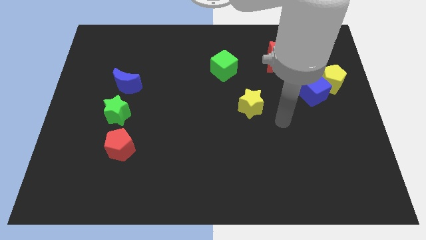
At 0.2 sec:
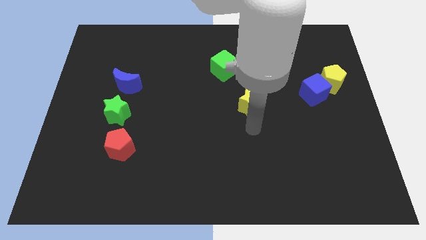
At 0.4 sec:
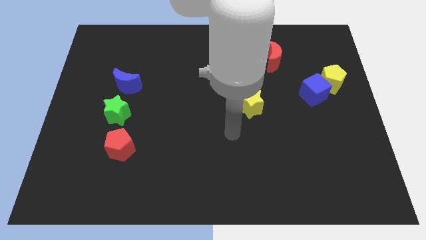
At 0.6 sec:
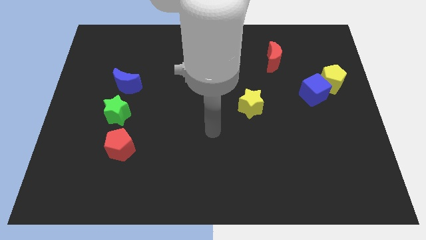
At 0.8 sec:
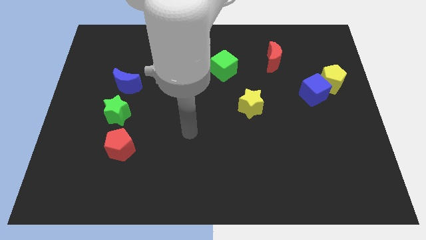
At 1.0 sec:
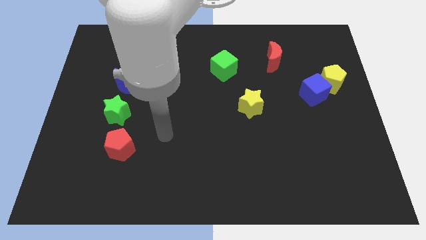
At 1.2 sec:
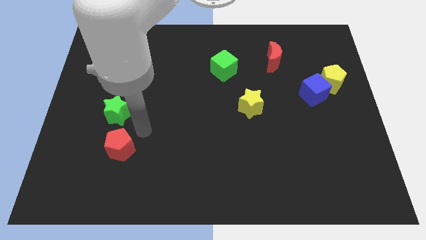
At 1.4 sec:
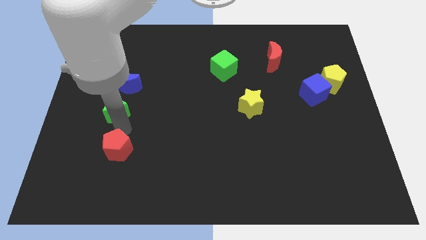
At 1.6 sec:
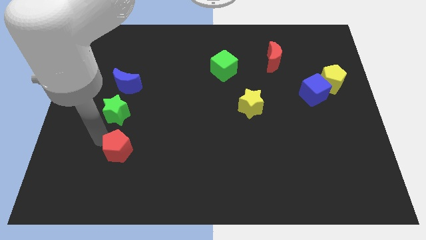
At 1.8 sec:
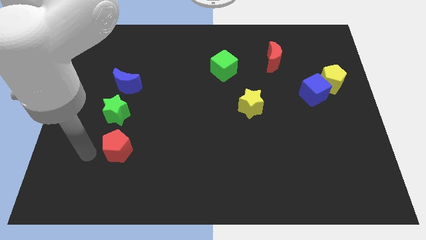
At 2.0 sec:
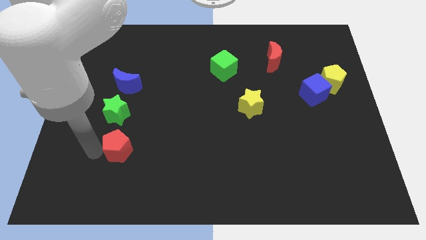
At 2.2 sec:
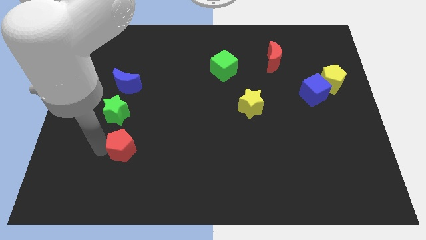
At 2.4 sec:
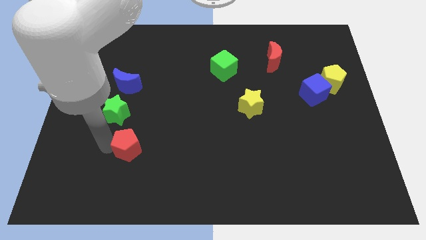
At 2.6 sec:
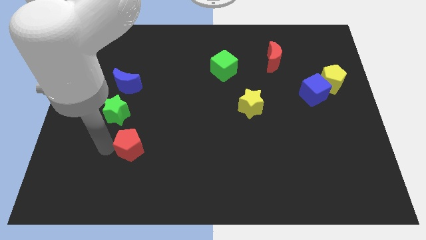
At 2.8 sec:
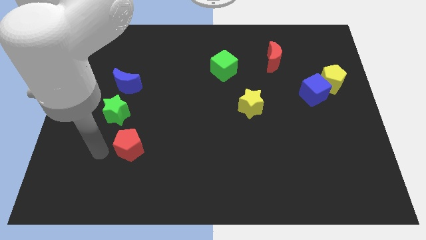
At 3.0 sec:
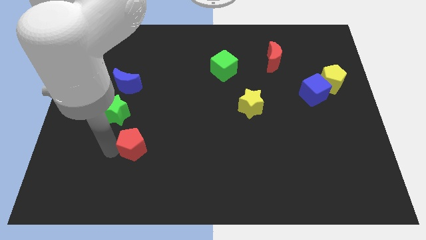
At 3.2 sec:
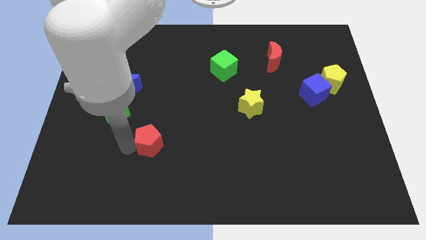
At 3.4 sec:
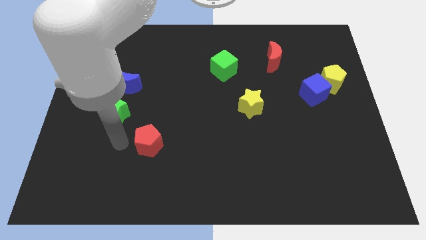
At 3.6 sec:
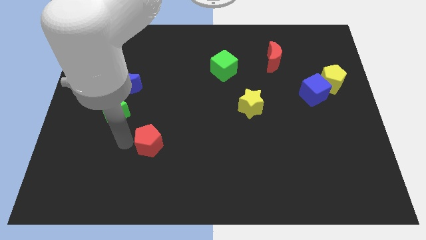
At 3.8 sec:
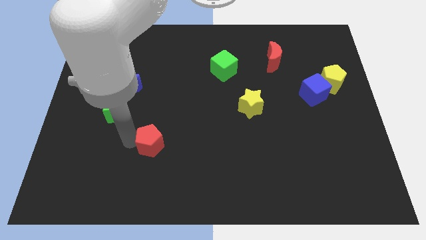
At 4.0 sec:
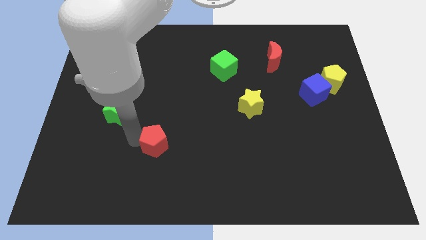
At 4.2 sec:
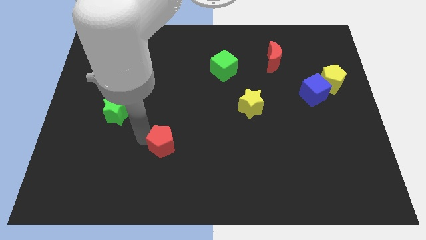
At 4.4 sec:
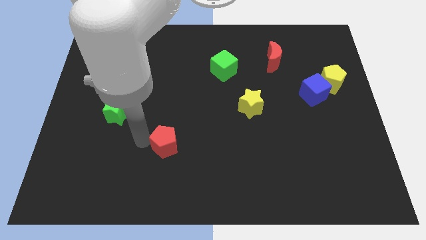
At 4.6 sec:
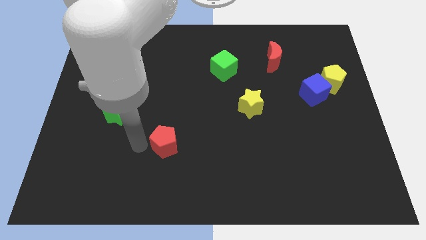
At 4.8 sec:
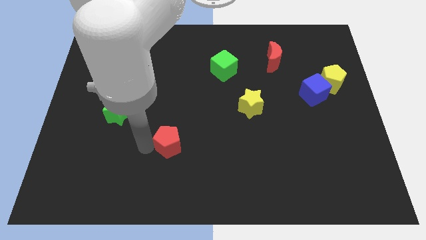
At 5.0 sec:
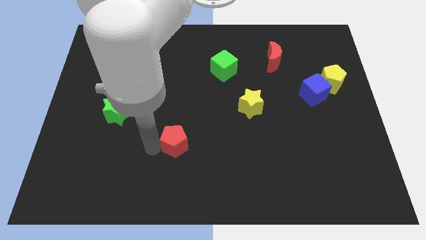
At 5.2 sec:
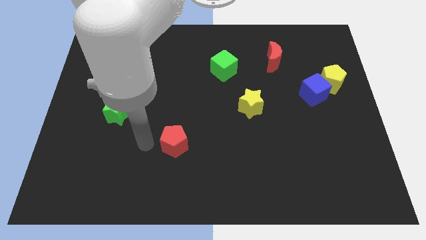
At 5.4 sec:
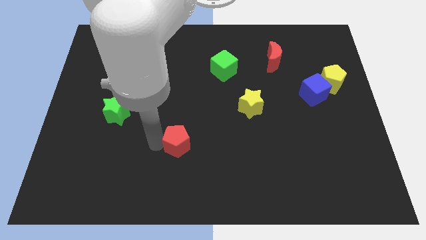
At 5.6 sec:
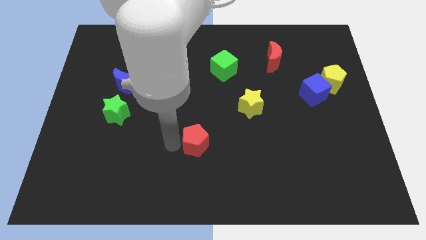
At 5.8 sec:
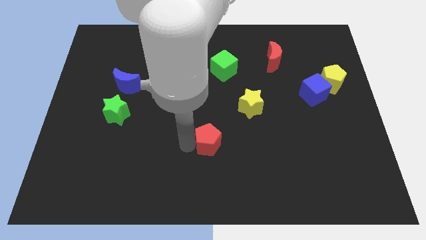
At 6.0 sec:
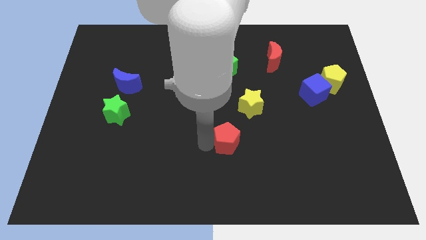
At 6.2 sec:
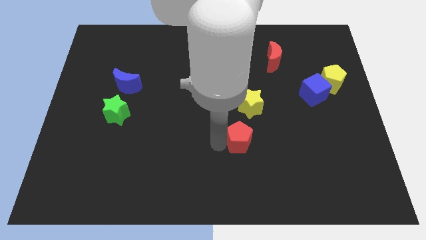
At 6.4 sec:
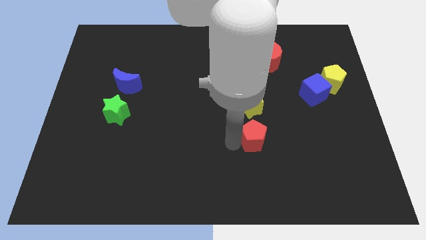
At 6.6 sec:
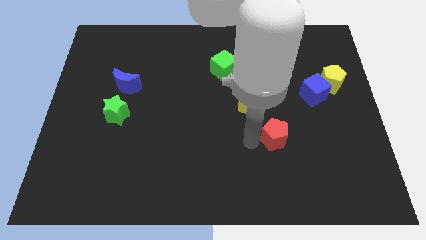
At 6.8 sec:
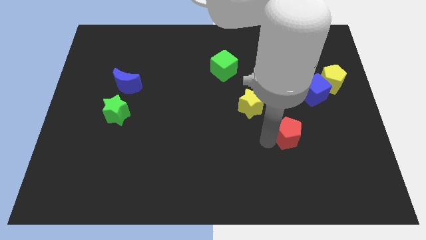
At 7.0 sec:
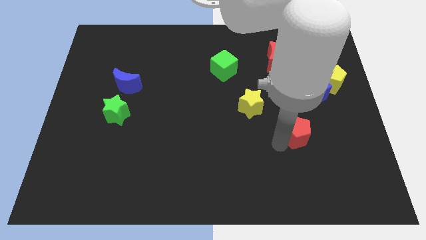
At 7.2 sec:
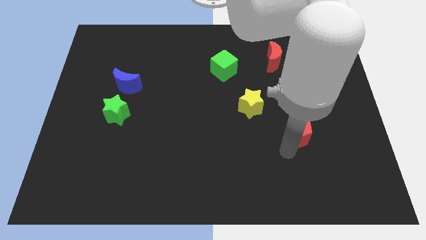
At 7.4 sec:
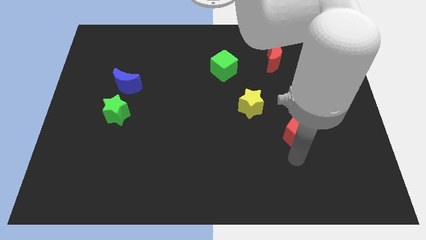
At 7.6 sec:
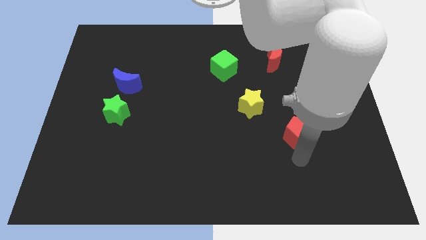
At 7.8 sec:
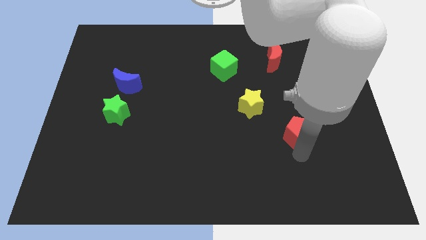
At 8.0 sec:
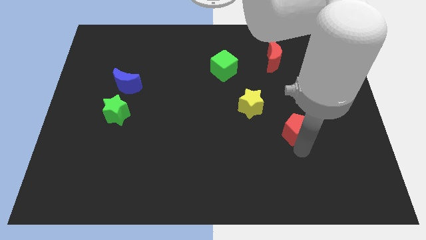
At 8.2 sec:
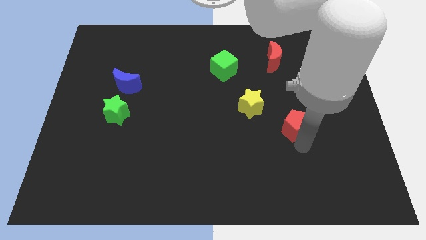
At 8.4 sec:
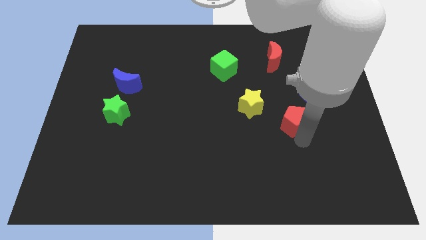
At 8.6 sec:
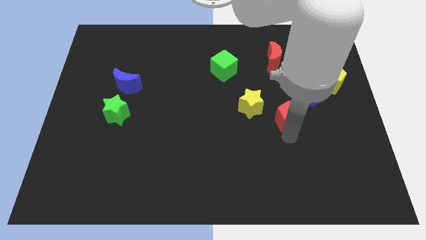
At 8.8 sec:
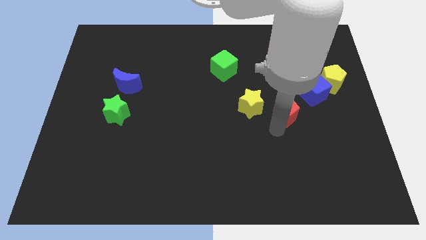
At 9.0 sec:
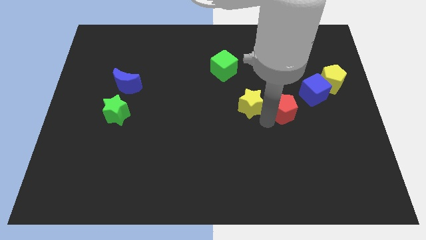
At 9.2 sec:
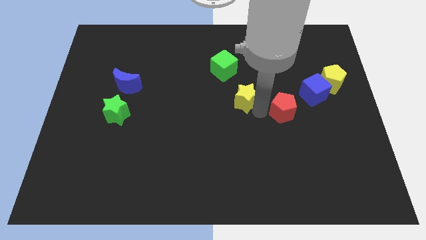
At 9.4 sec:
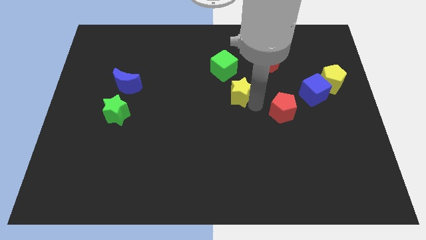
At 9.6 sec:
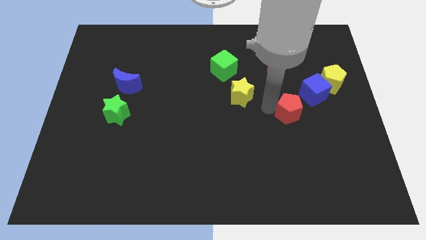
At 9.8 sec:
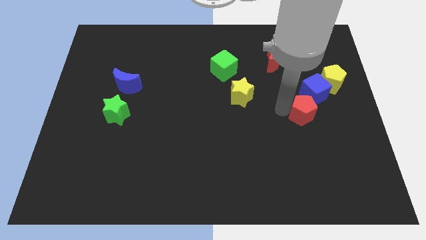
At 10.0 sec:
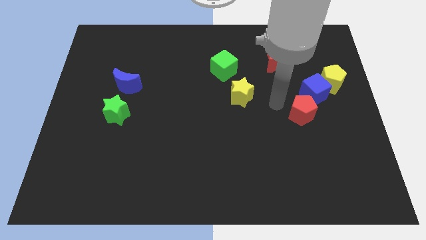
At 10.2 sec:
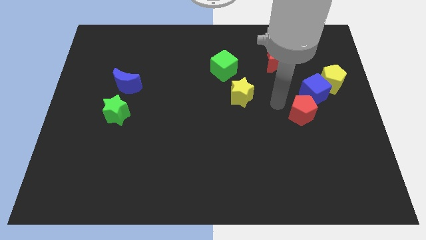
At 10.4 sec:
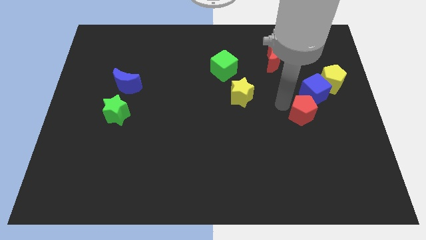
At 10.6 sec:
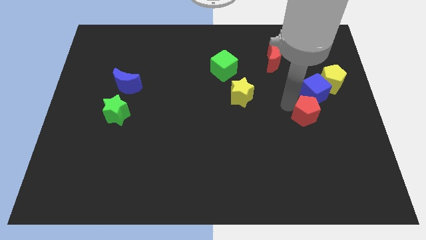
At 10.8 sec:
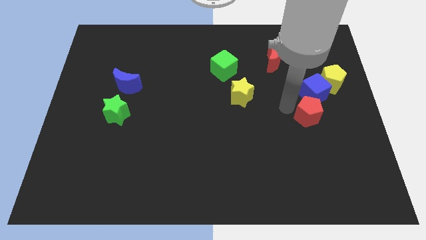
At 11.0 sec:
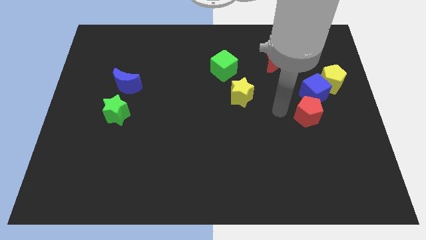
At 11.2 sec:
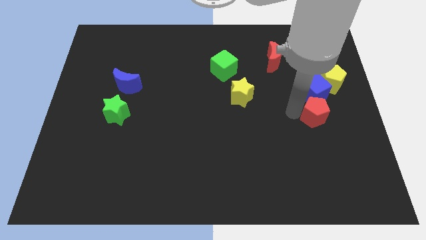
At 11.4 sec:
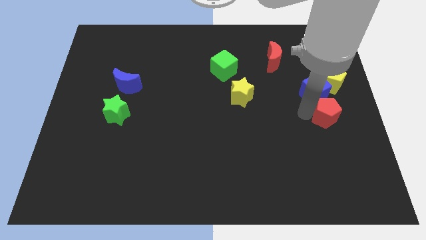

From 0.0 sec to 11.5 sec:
move the red pentagon to the center right

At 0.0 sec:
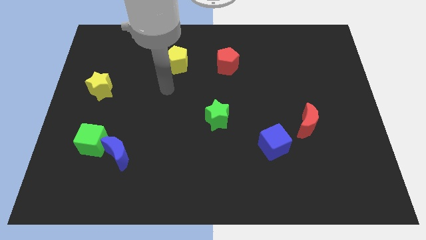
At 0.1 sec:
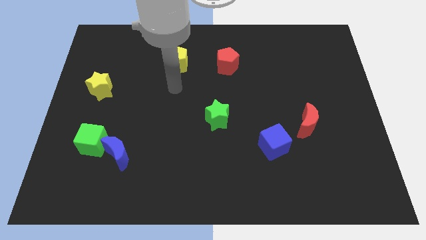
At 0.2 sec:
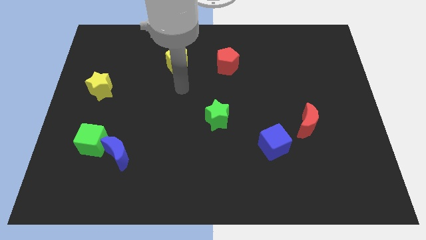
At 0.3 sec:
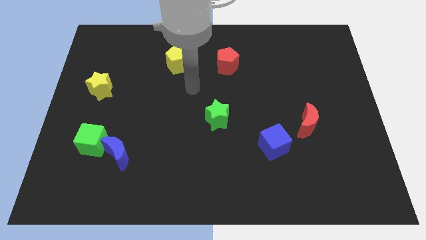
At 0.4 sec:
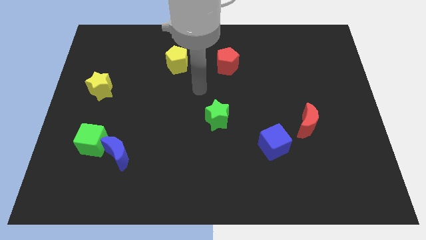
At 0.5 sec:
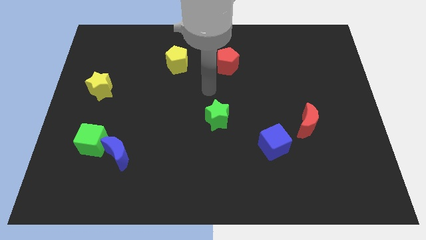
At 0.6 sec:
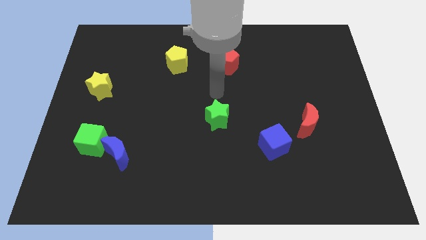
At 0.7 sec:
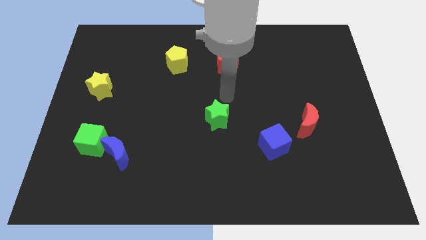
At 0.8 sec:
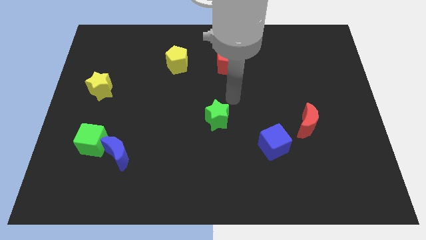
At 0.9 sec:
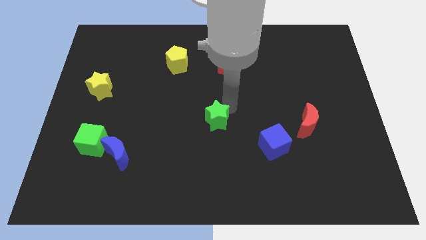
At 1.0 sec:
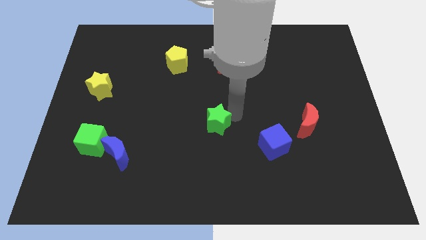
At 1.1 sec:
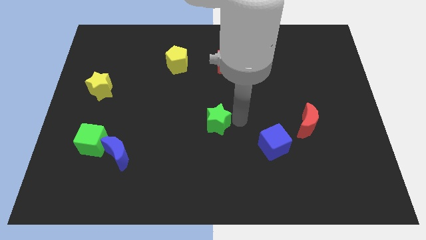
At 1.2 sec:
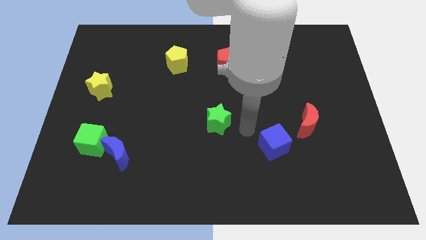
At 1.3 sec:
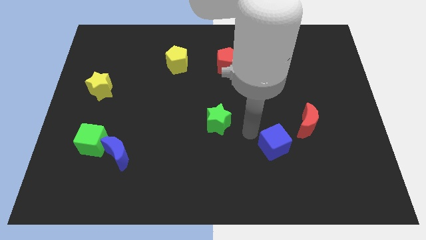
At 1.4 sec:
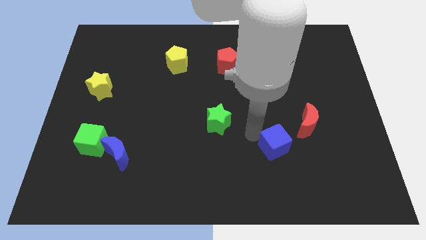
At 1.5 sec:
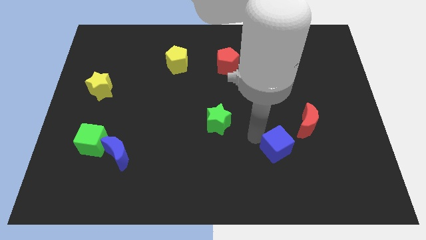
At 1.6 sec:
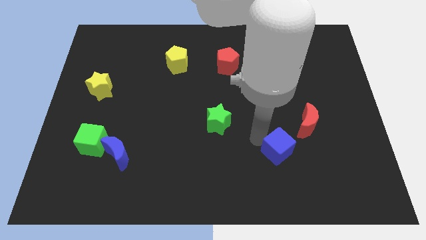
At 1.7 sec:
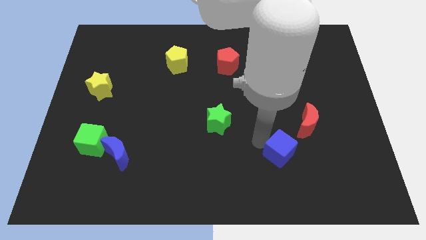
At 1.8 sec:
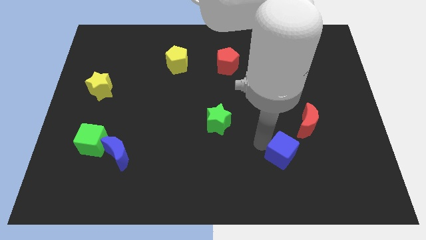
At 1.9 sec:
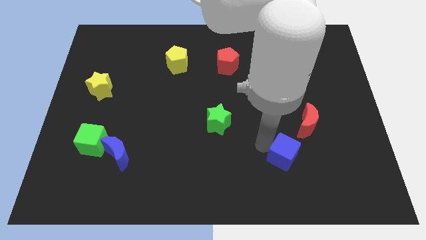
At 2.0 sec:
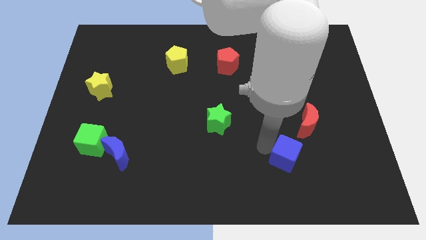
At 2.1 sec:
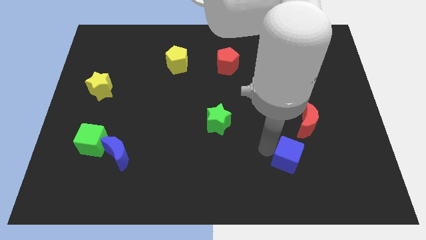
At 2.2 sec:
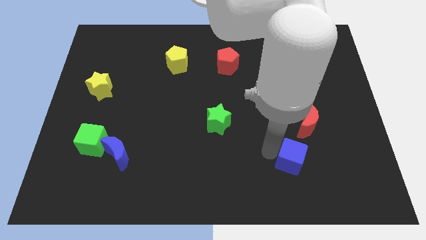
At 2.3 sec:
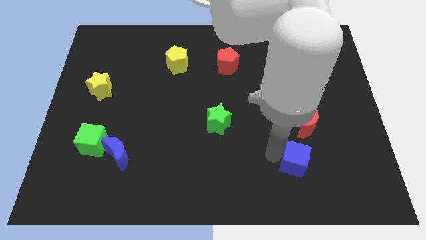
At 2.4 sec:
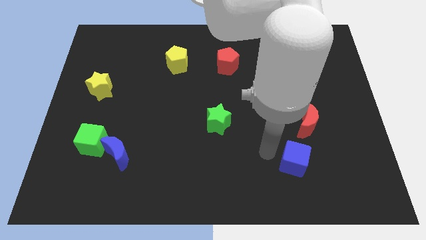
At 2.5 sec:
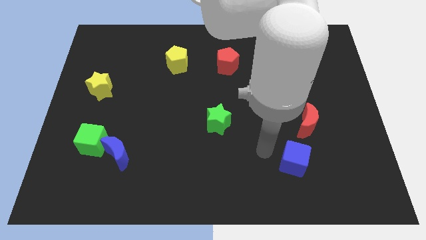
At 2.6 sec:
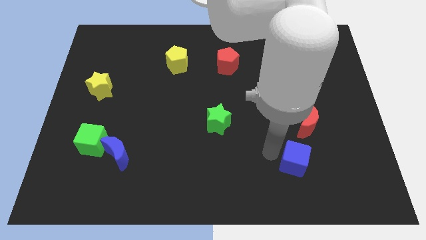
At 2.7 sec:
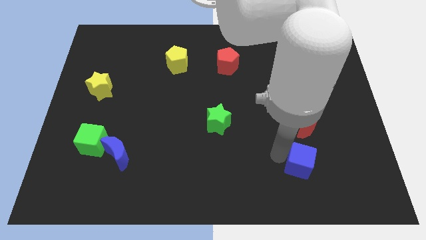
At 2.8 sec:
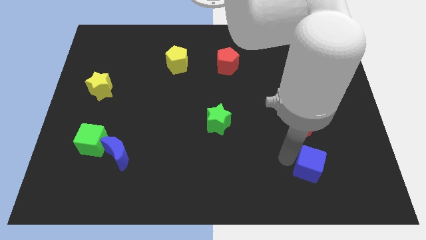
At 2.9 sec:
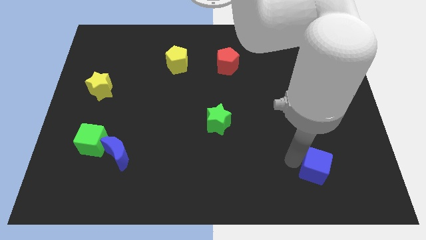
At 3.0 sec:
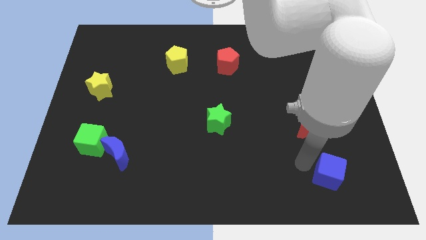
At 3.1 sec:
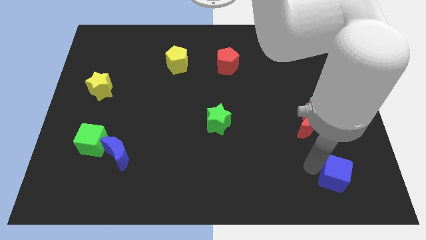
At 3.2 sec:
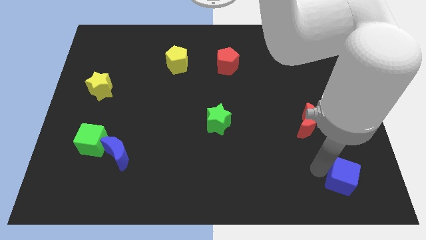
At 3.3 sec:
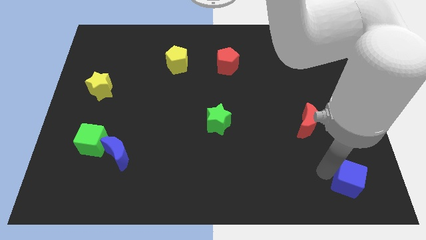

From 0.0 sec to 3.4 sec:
move the blue cube to the bottom right corner
